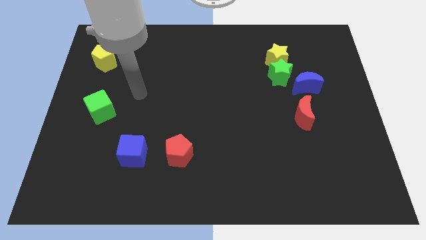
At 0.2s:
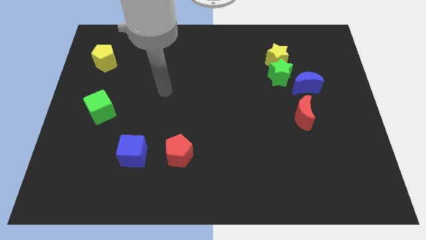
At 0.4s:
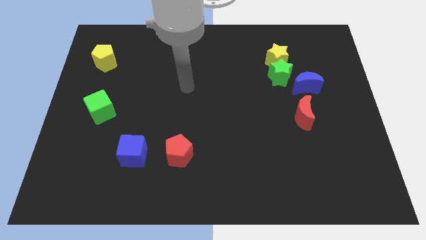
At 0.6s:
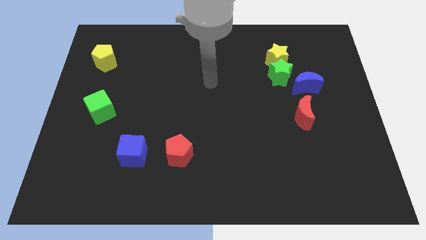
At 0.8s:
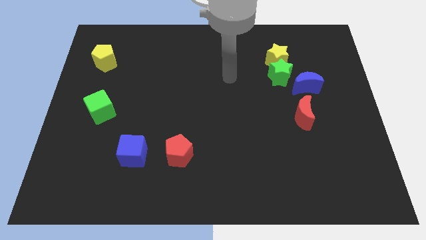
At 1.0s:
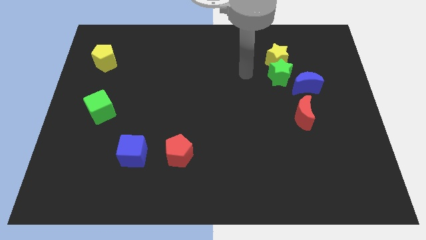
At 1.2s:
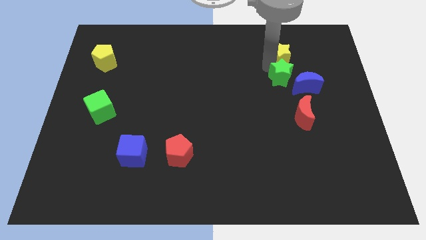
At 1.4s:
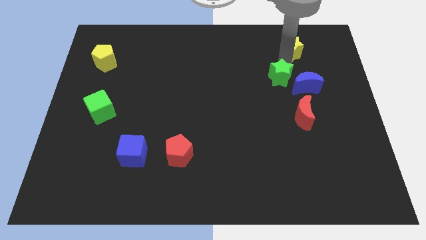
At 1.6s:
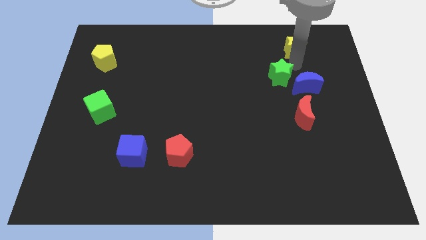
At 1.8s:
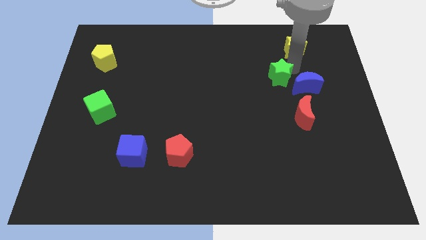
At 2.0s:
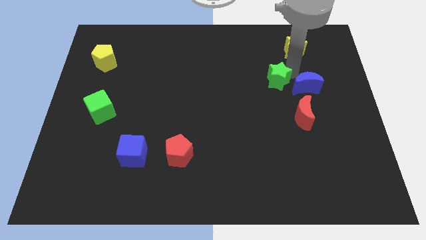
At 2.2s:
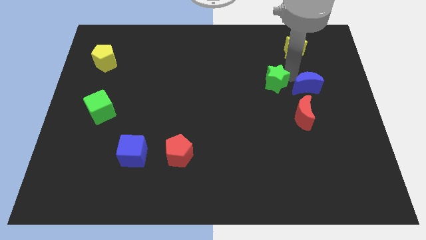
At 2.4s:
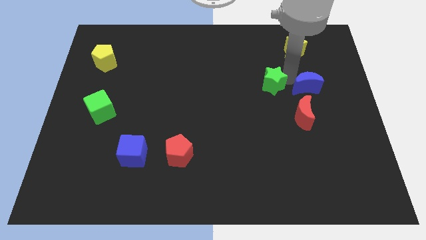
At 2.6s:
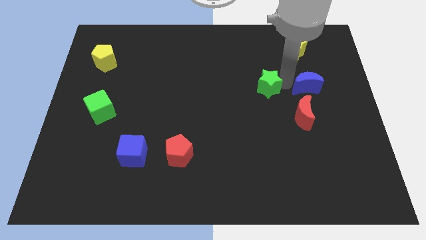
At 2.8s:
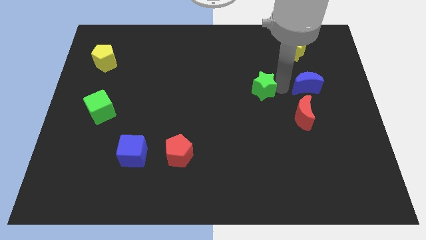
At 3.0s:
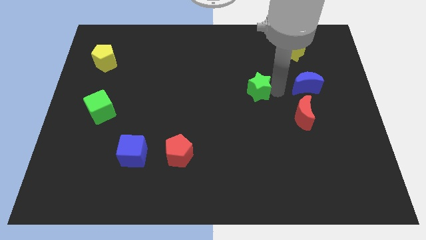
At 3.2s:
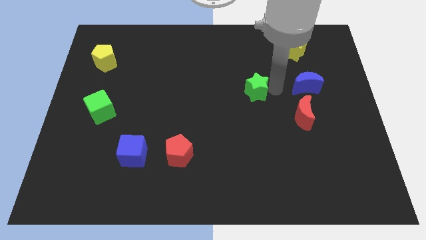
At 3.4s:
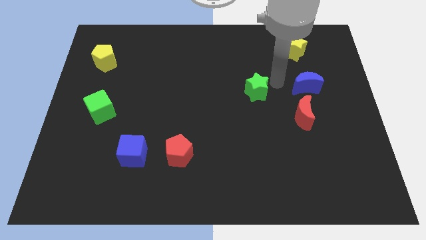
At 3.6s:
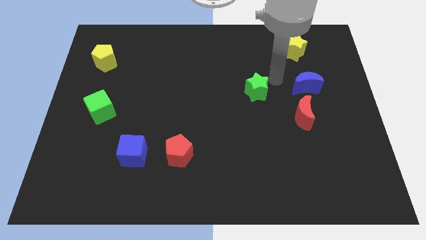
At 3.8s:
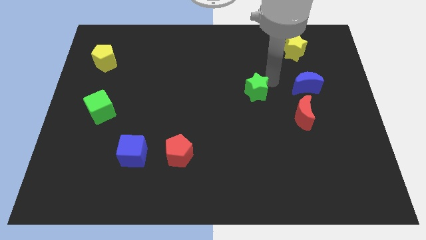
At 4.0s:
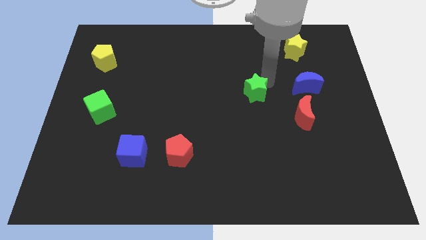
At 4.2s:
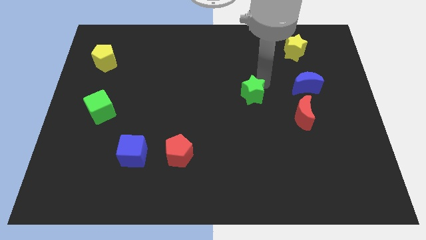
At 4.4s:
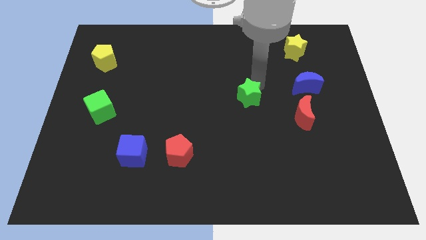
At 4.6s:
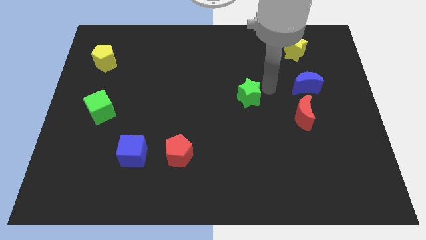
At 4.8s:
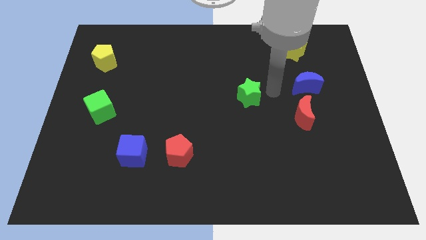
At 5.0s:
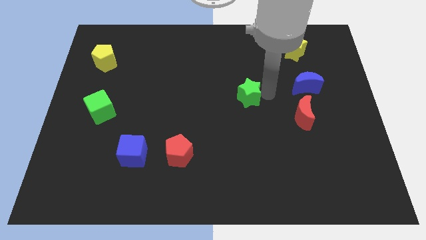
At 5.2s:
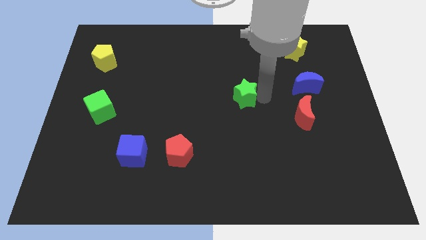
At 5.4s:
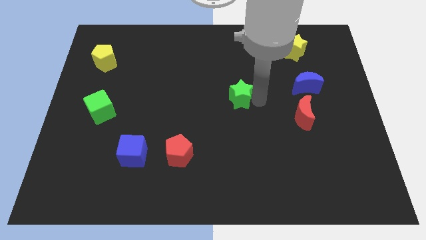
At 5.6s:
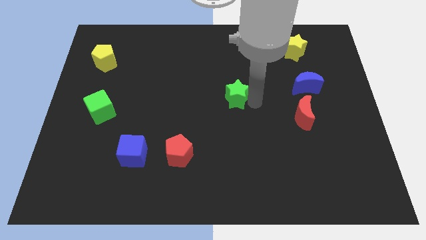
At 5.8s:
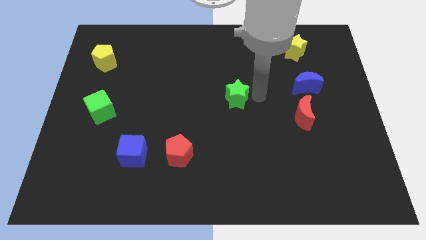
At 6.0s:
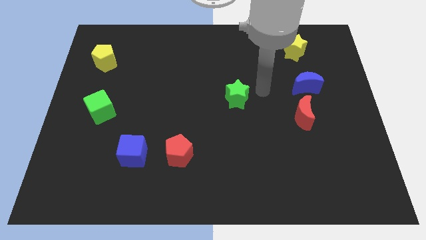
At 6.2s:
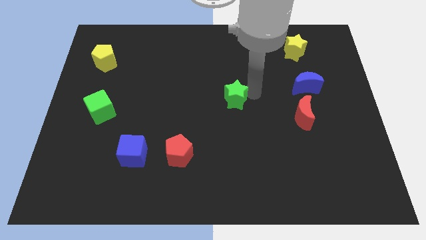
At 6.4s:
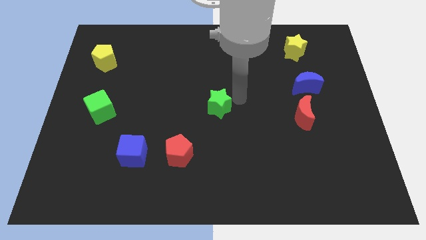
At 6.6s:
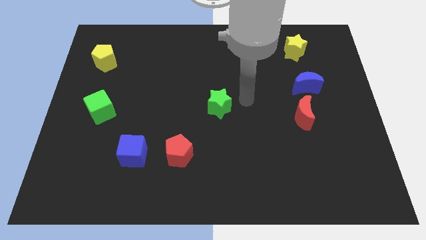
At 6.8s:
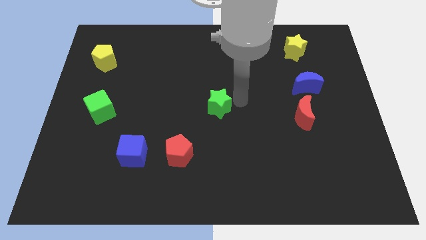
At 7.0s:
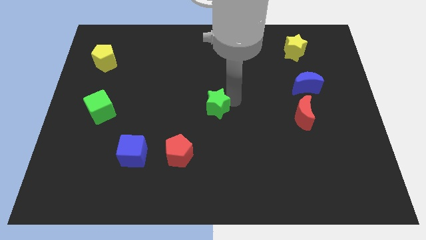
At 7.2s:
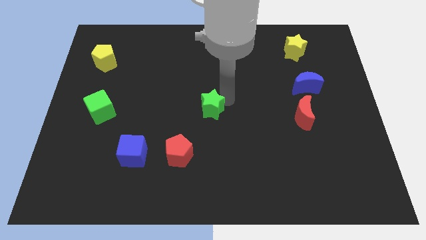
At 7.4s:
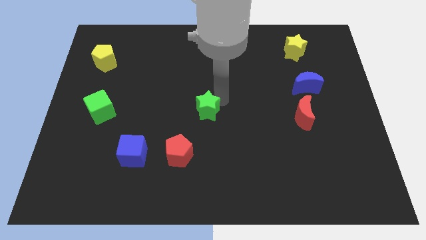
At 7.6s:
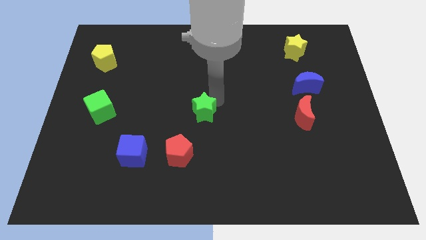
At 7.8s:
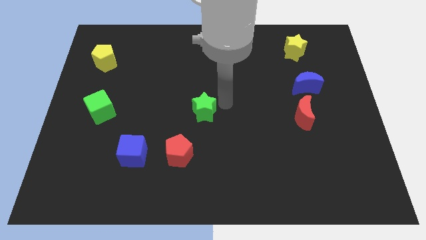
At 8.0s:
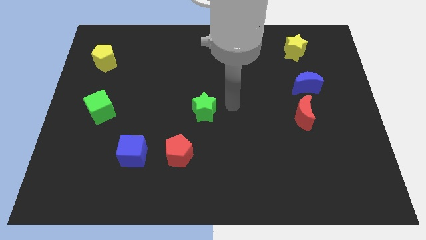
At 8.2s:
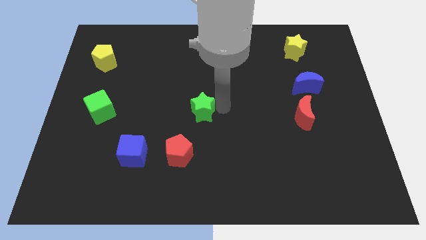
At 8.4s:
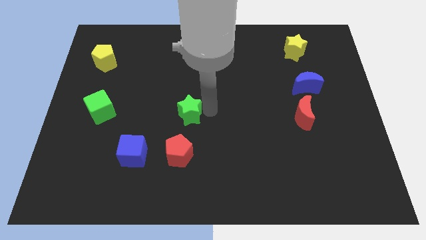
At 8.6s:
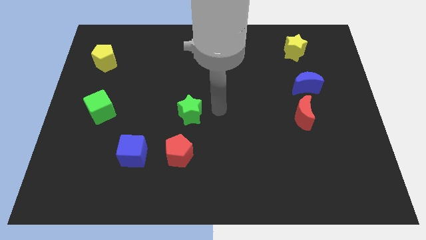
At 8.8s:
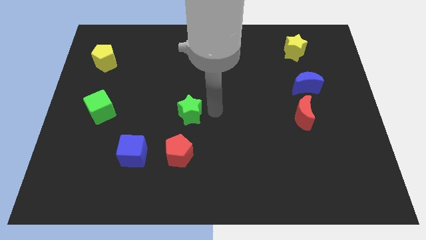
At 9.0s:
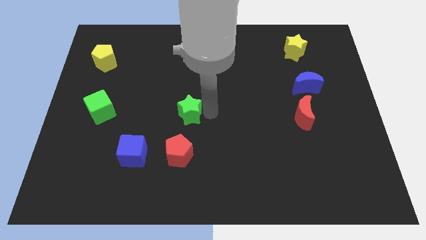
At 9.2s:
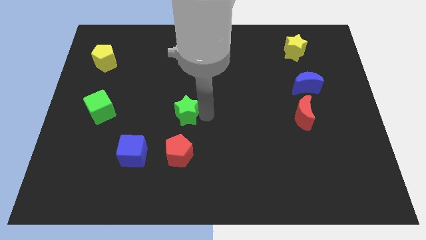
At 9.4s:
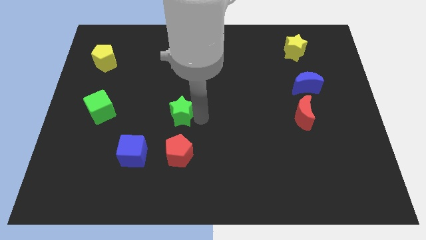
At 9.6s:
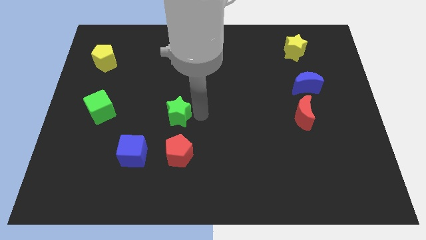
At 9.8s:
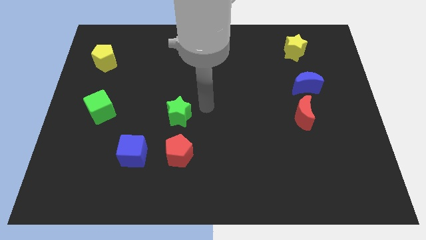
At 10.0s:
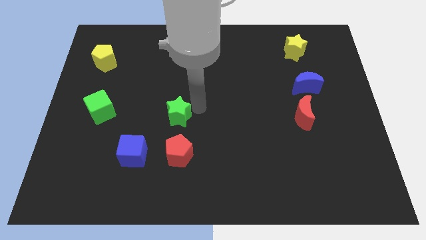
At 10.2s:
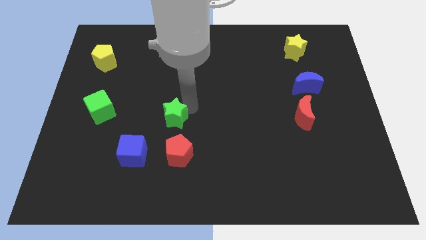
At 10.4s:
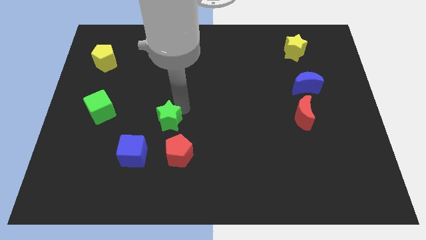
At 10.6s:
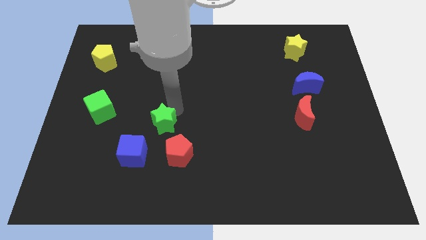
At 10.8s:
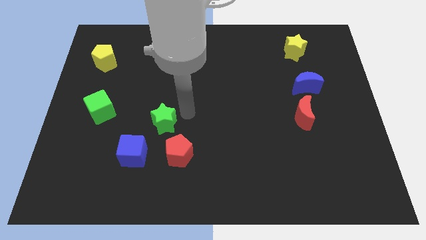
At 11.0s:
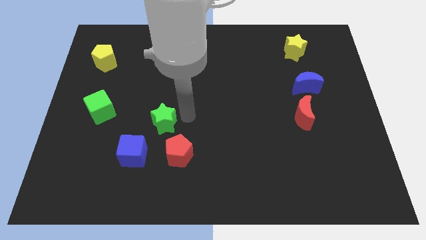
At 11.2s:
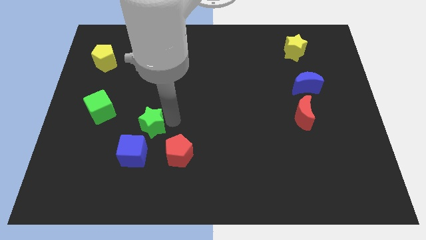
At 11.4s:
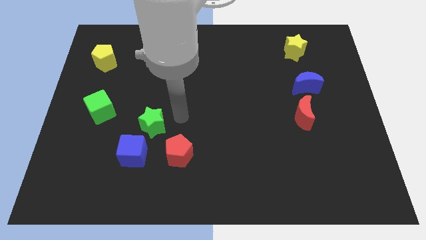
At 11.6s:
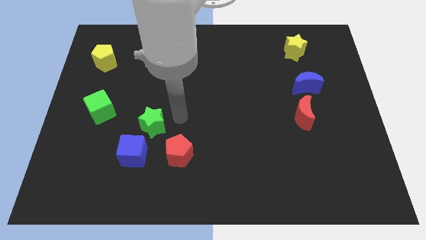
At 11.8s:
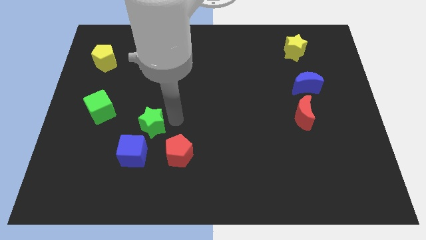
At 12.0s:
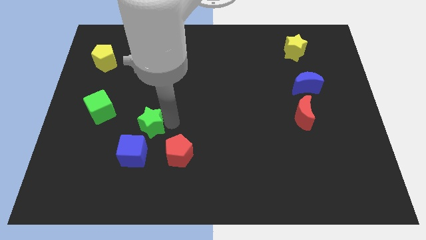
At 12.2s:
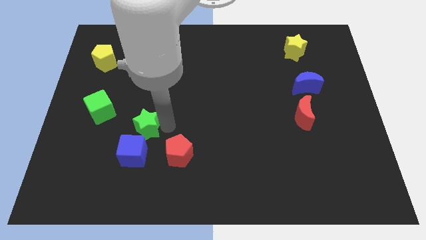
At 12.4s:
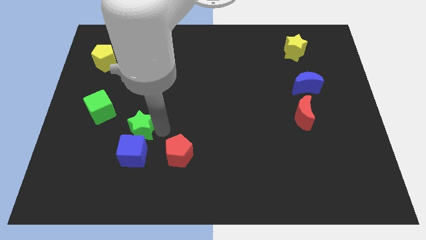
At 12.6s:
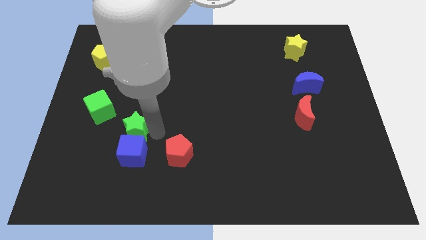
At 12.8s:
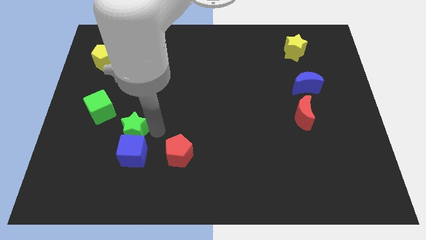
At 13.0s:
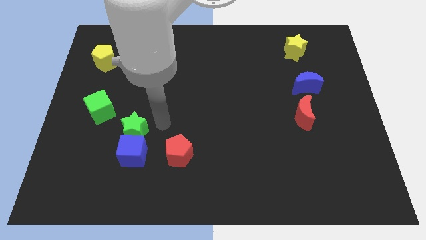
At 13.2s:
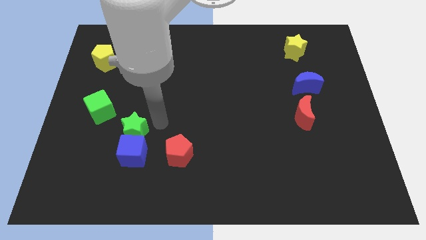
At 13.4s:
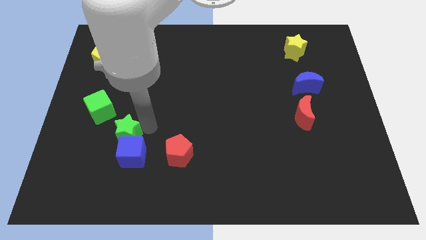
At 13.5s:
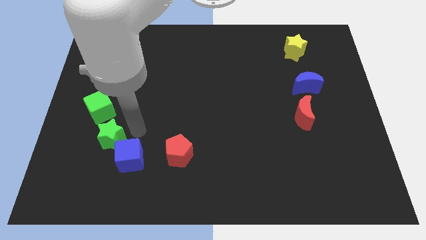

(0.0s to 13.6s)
slide the green star to the left of the blue cube
